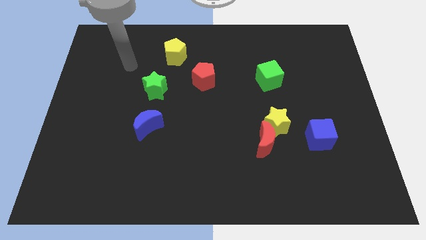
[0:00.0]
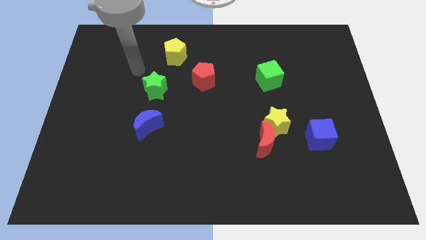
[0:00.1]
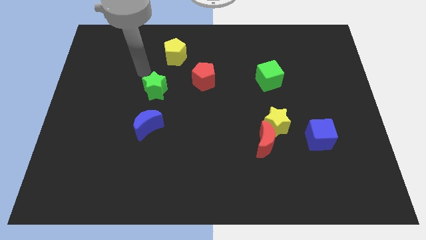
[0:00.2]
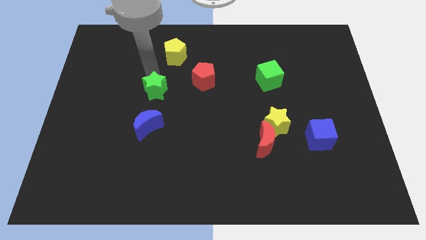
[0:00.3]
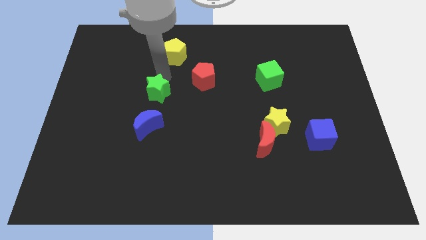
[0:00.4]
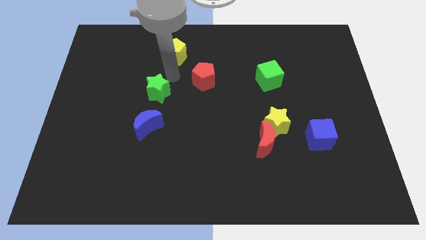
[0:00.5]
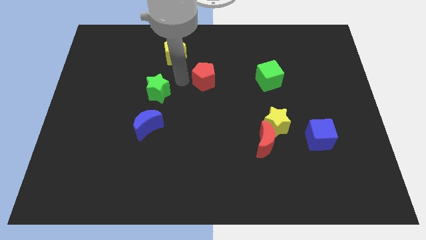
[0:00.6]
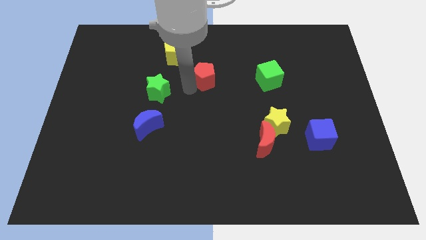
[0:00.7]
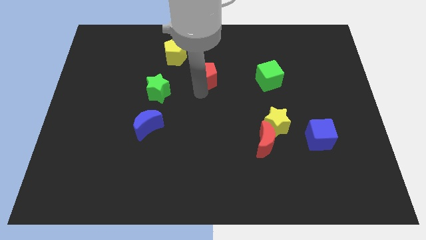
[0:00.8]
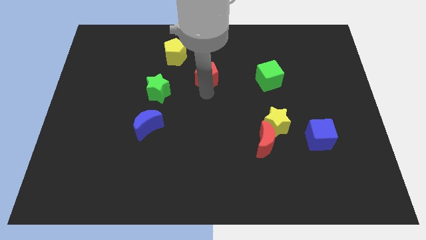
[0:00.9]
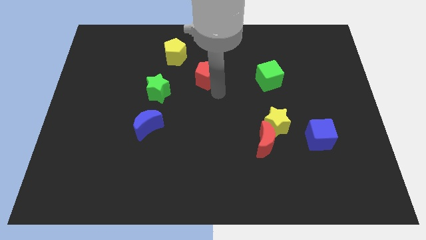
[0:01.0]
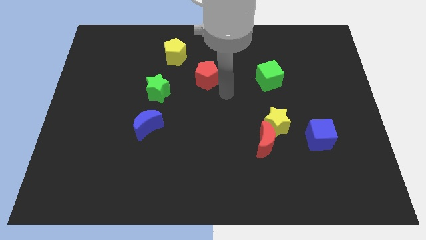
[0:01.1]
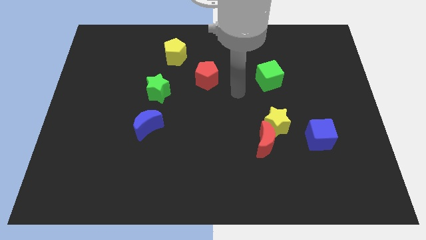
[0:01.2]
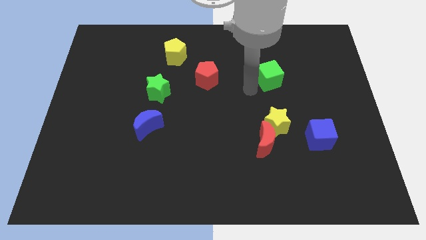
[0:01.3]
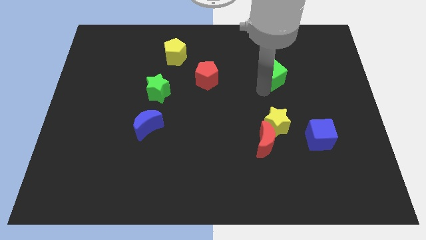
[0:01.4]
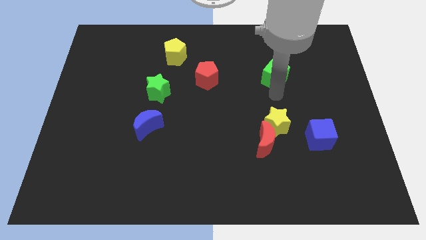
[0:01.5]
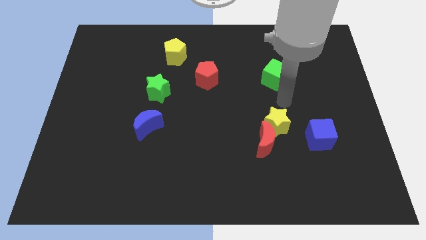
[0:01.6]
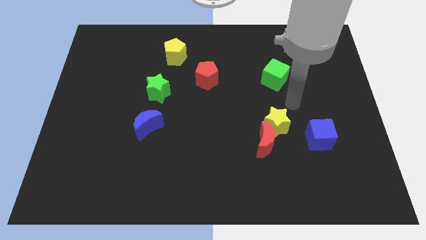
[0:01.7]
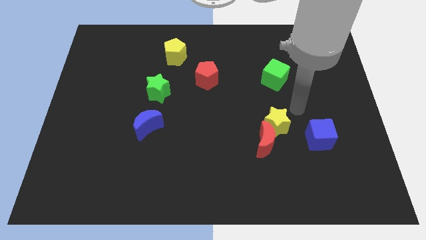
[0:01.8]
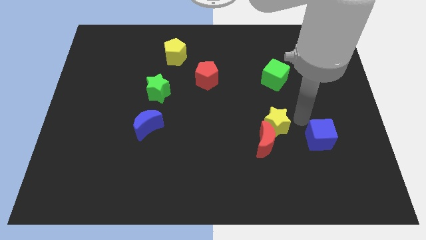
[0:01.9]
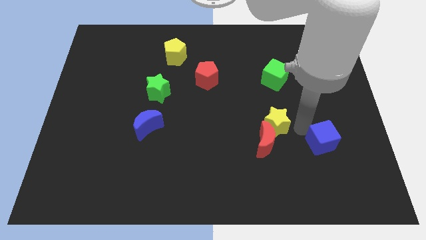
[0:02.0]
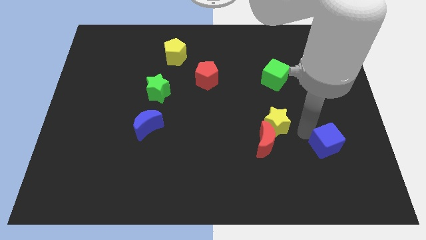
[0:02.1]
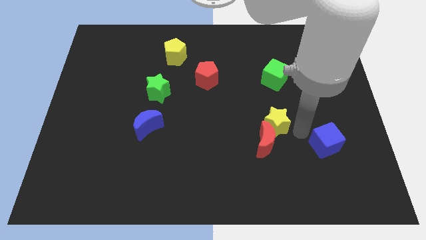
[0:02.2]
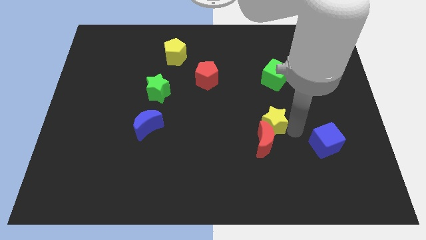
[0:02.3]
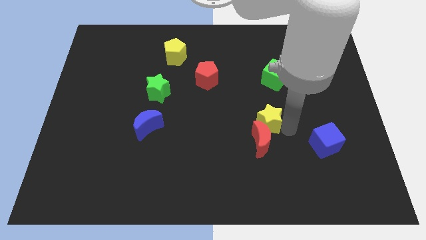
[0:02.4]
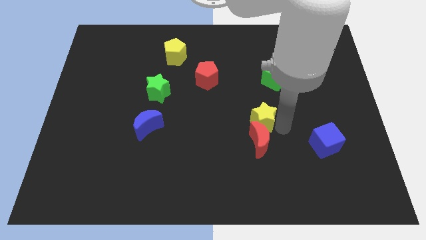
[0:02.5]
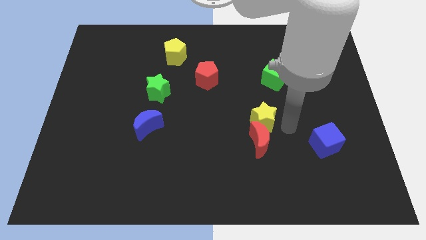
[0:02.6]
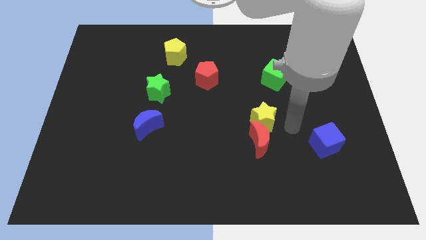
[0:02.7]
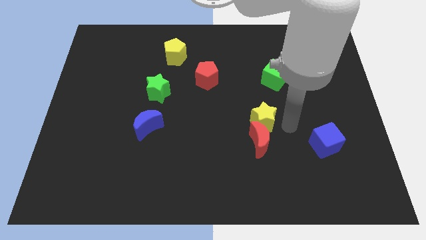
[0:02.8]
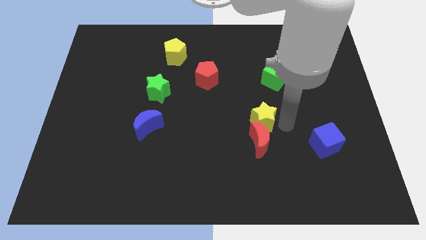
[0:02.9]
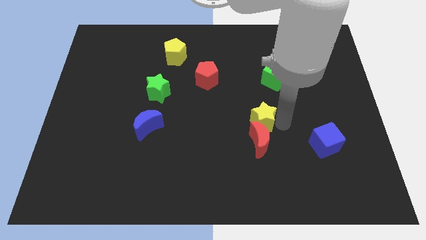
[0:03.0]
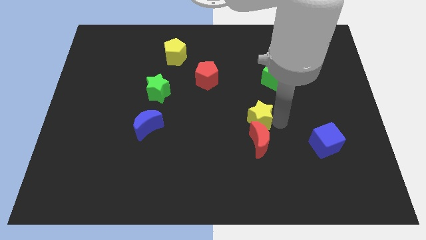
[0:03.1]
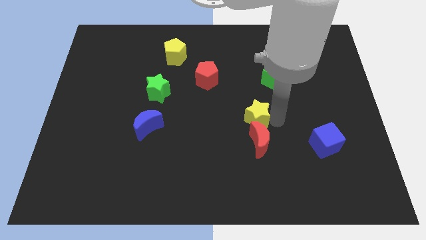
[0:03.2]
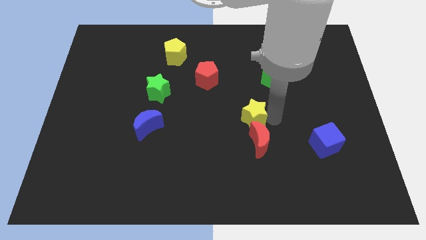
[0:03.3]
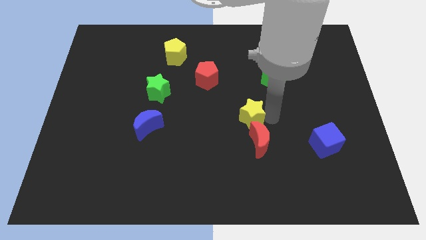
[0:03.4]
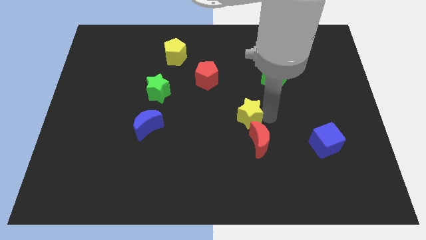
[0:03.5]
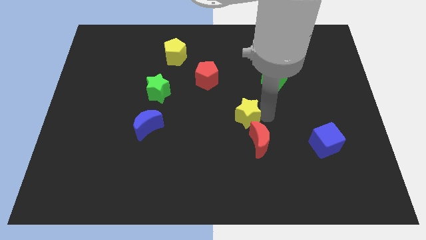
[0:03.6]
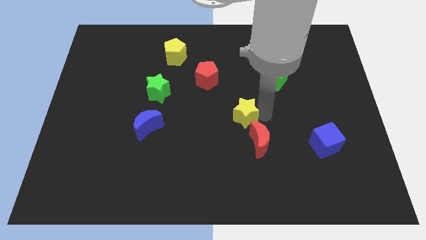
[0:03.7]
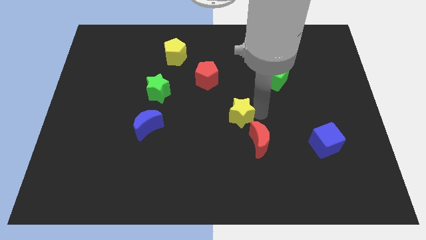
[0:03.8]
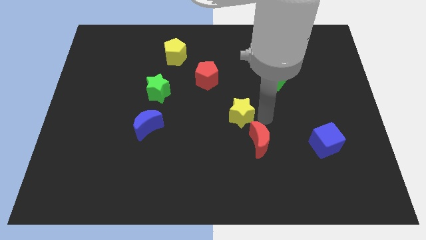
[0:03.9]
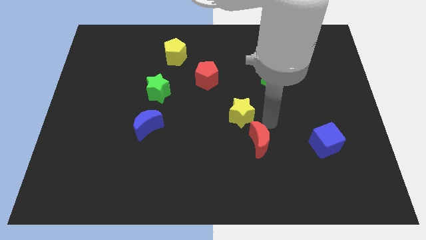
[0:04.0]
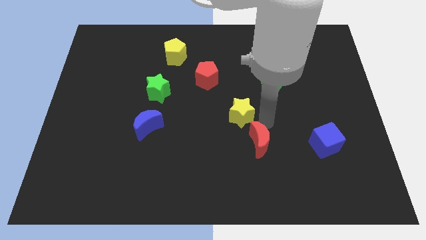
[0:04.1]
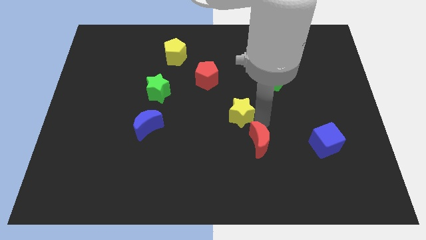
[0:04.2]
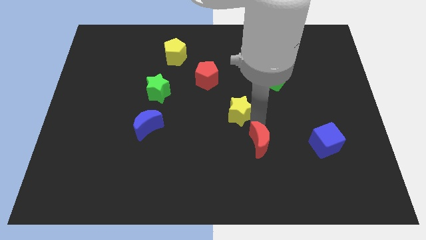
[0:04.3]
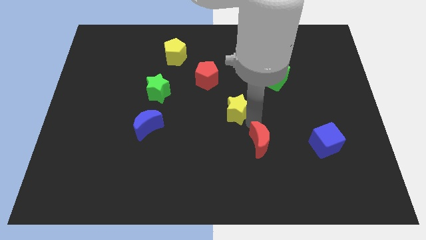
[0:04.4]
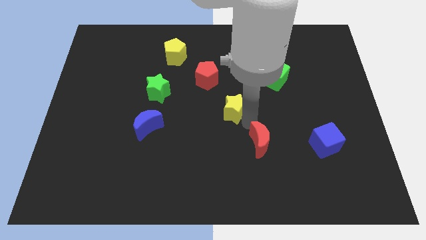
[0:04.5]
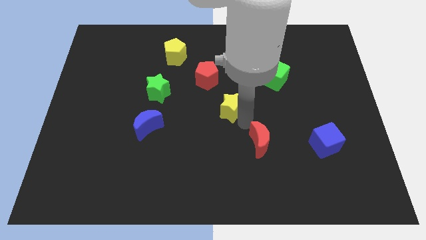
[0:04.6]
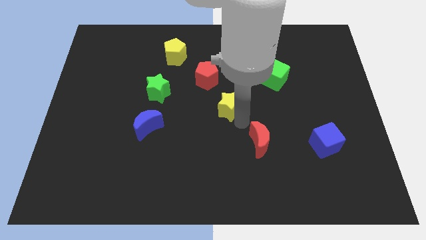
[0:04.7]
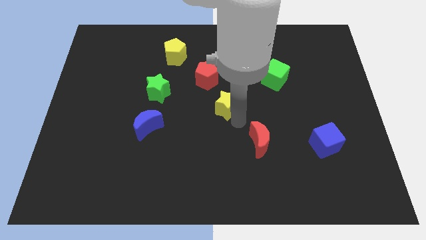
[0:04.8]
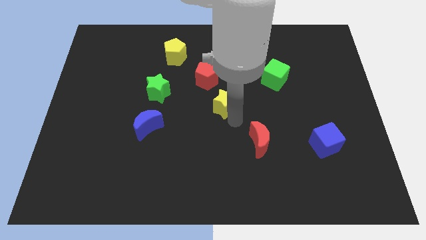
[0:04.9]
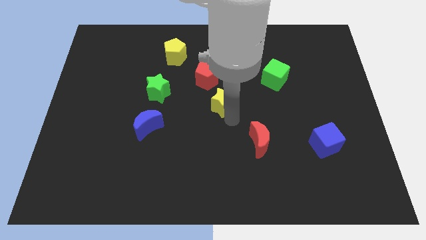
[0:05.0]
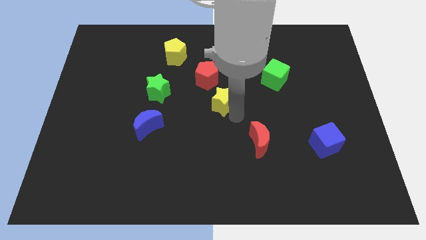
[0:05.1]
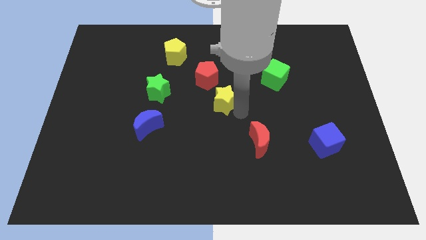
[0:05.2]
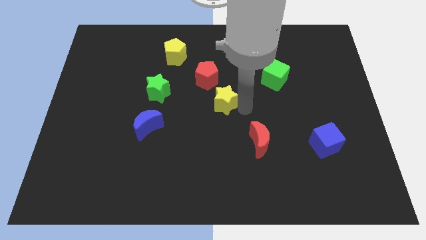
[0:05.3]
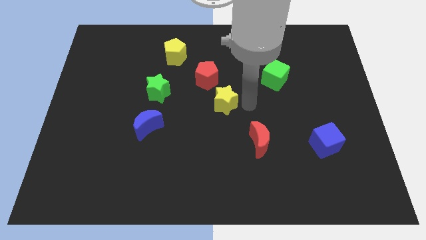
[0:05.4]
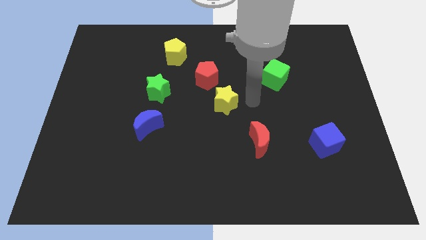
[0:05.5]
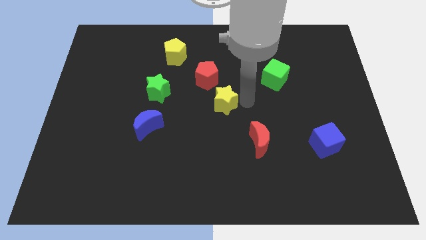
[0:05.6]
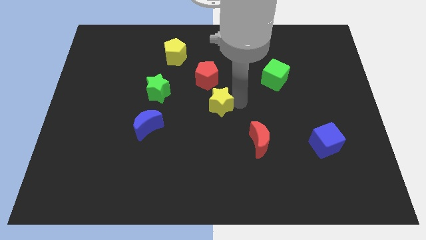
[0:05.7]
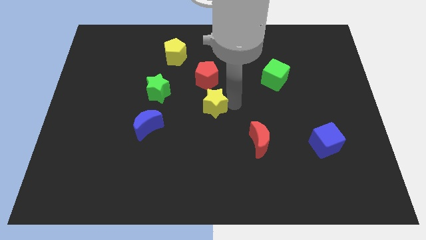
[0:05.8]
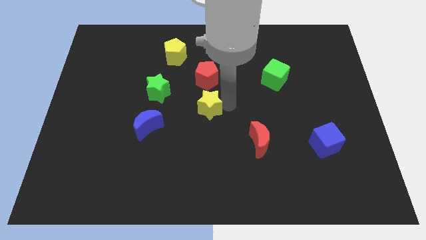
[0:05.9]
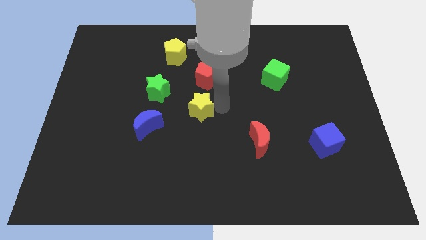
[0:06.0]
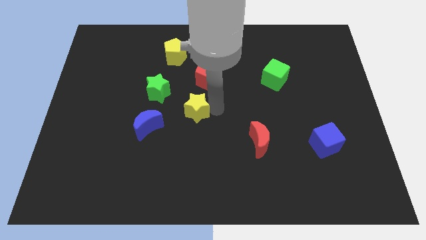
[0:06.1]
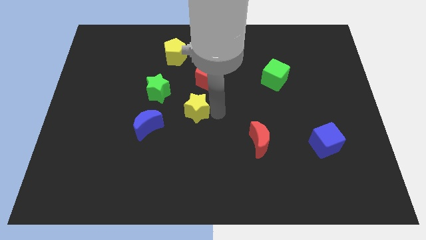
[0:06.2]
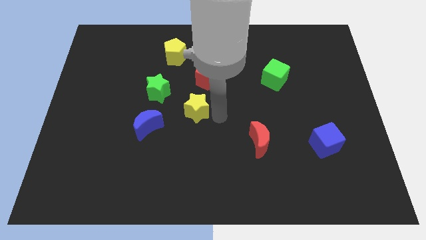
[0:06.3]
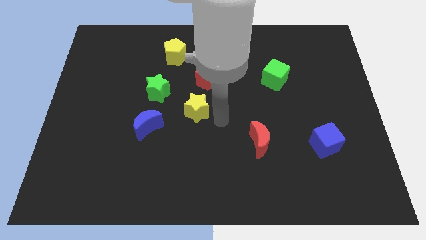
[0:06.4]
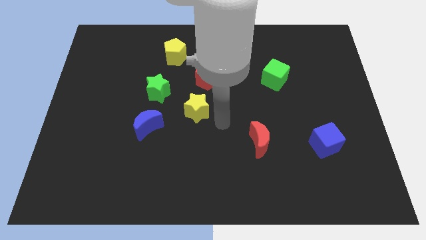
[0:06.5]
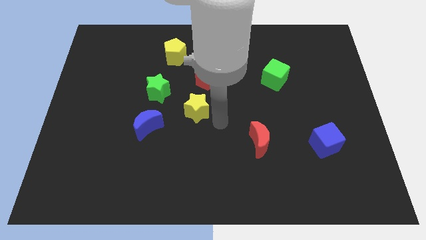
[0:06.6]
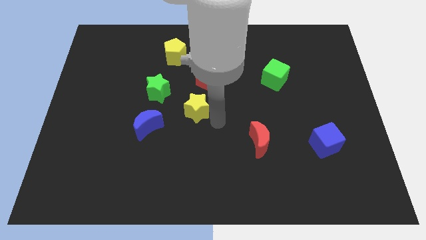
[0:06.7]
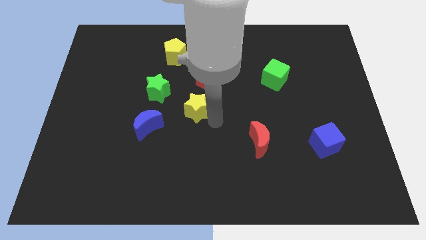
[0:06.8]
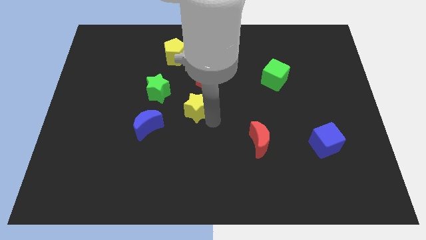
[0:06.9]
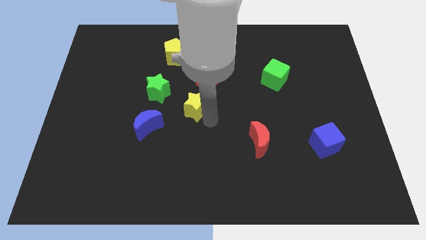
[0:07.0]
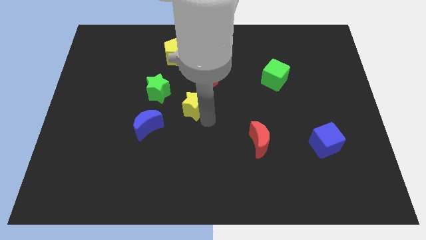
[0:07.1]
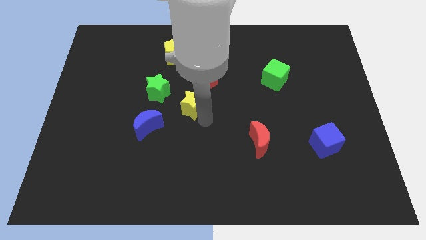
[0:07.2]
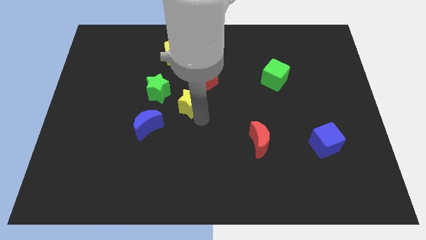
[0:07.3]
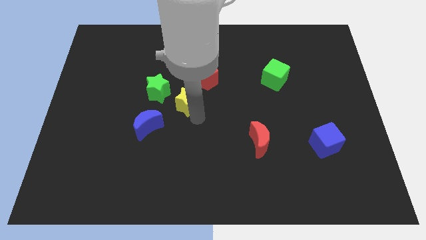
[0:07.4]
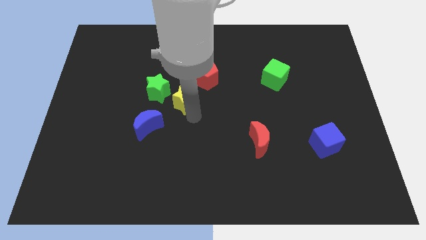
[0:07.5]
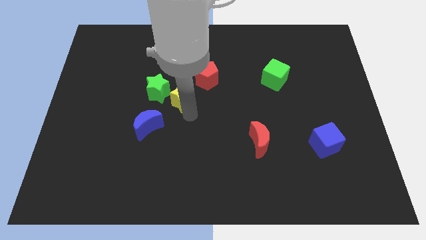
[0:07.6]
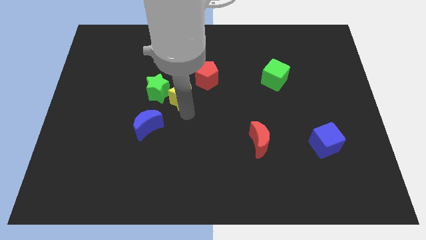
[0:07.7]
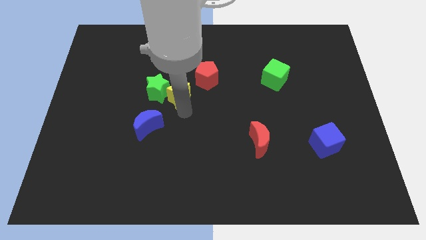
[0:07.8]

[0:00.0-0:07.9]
push the yellow star towards the green star
